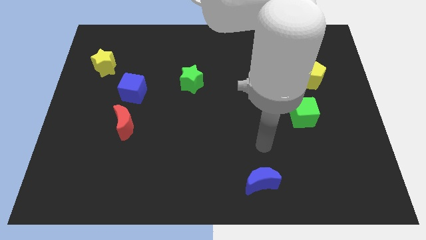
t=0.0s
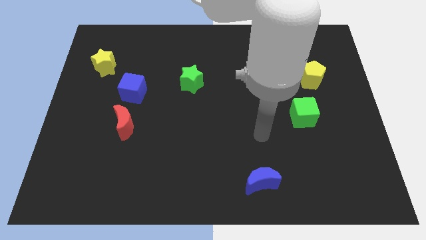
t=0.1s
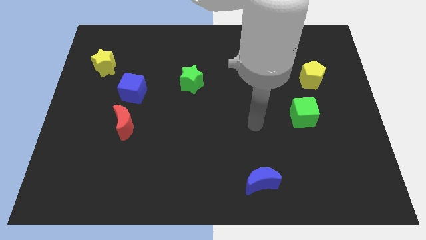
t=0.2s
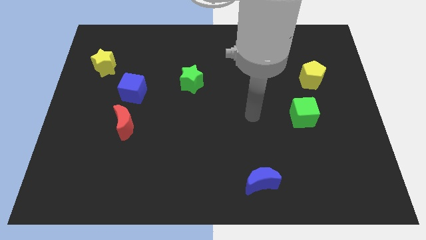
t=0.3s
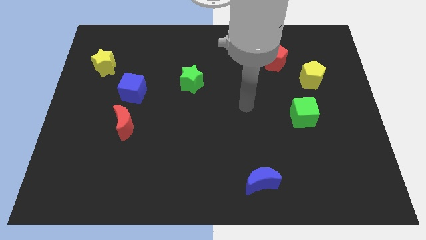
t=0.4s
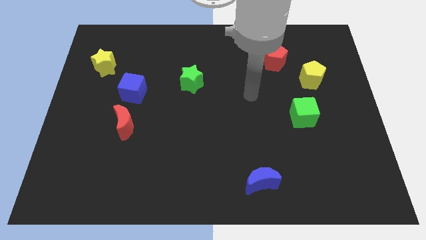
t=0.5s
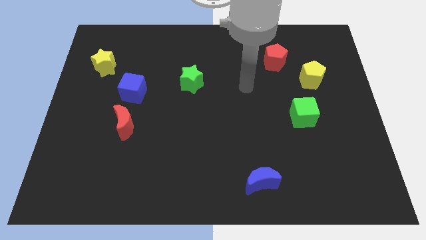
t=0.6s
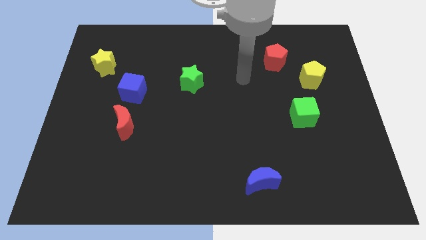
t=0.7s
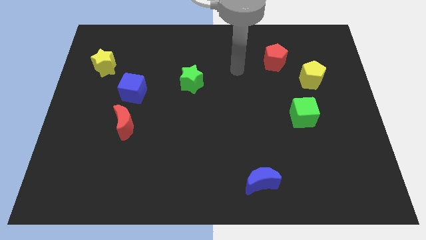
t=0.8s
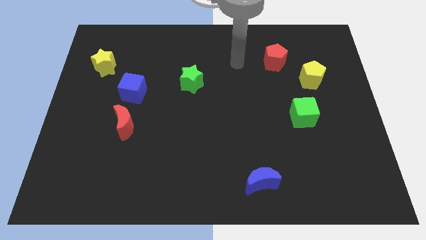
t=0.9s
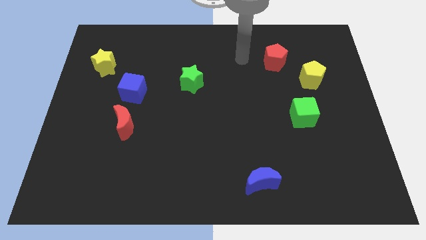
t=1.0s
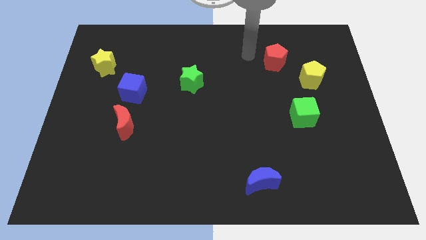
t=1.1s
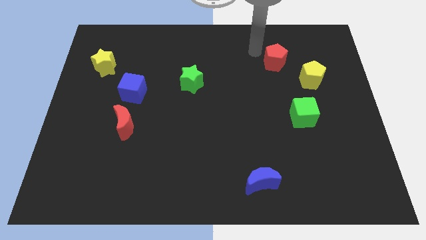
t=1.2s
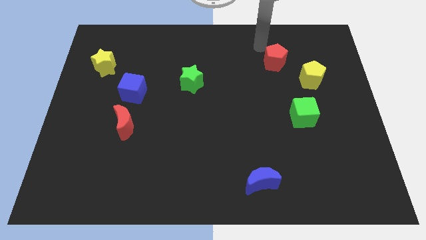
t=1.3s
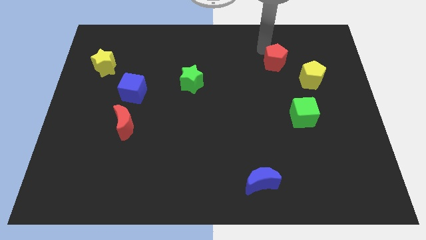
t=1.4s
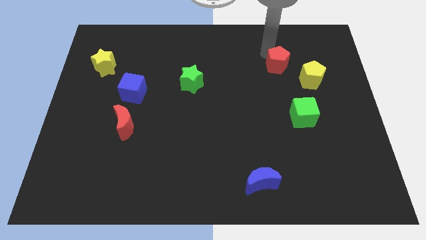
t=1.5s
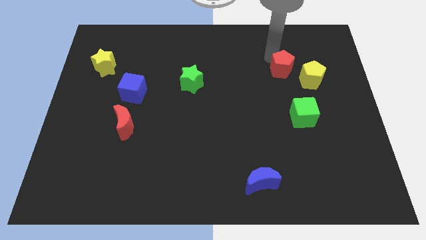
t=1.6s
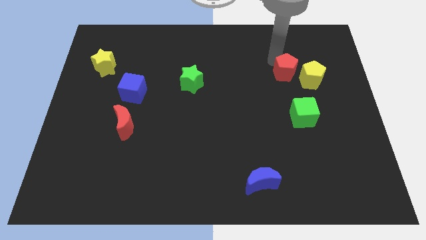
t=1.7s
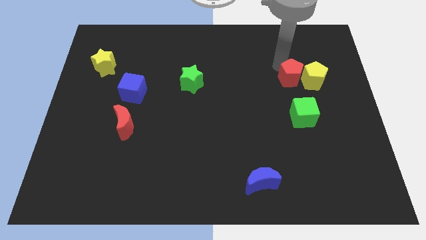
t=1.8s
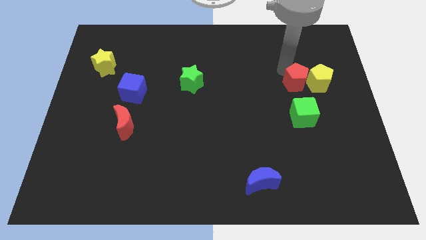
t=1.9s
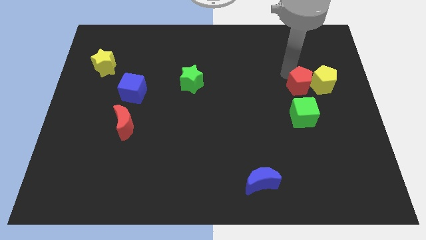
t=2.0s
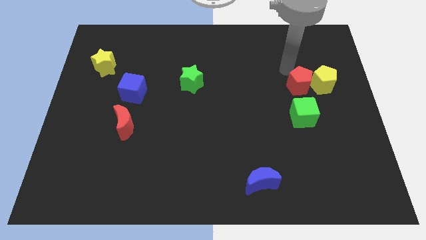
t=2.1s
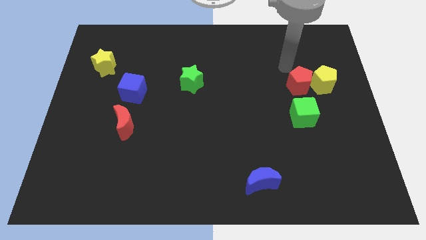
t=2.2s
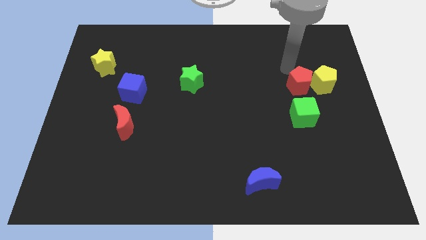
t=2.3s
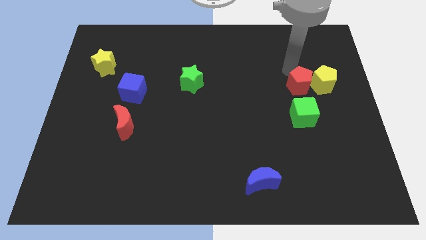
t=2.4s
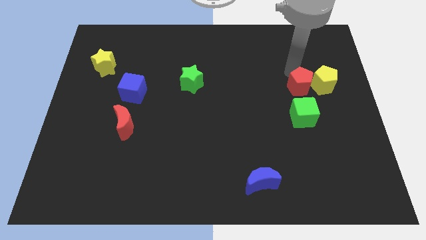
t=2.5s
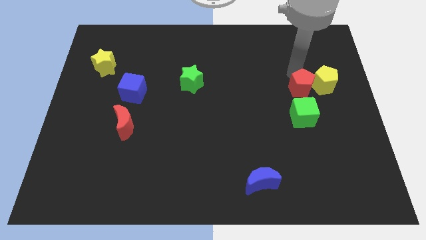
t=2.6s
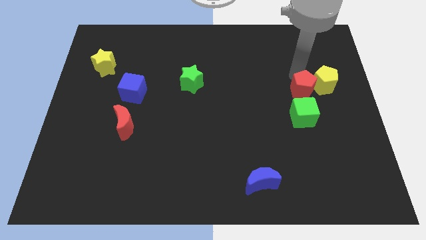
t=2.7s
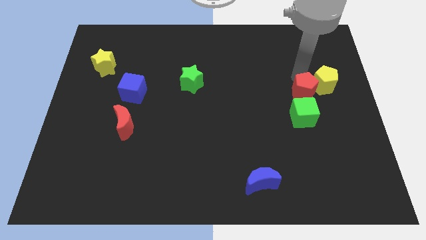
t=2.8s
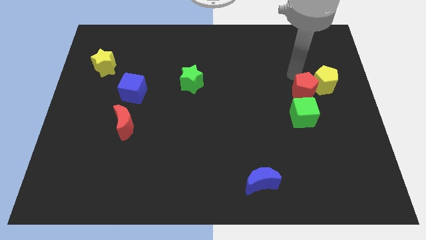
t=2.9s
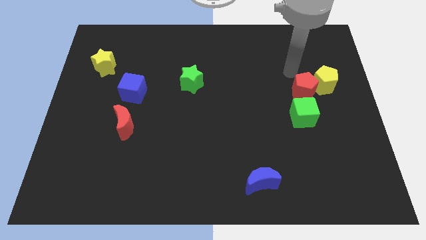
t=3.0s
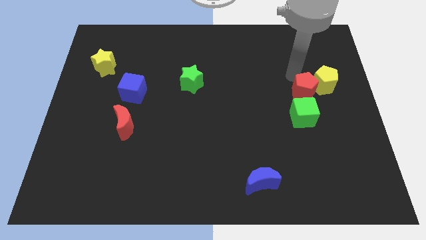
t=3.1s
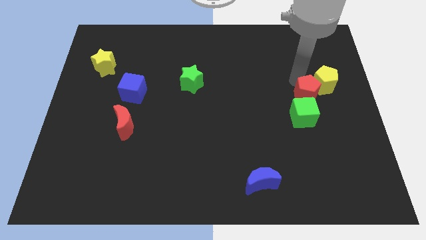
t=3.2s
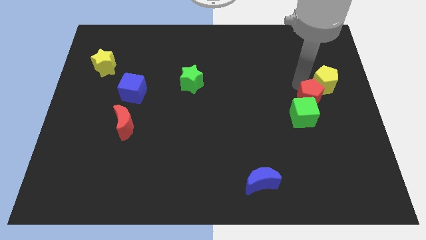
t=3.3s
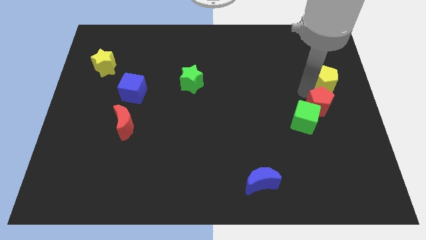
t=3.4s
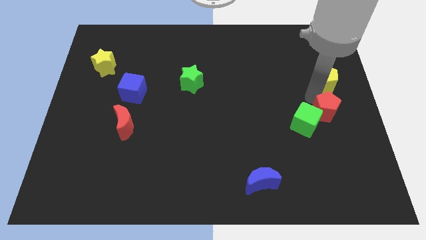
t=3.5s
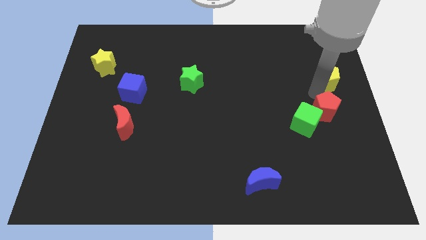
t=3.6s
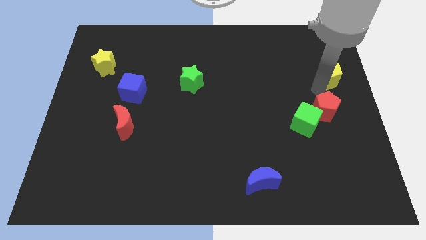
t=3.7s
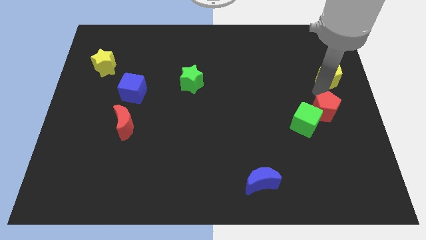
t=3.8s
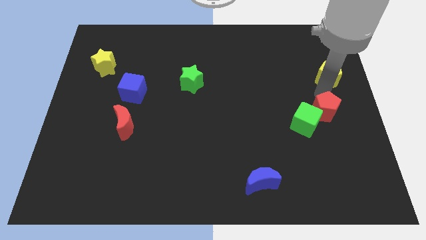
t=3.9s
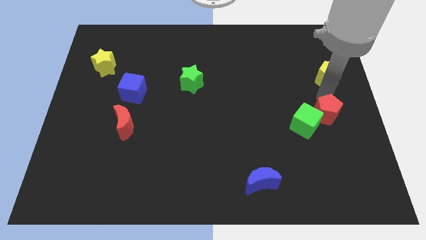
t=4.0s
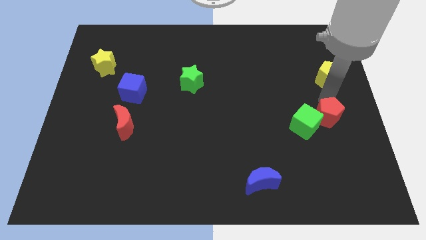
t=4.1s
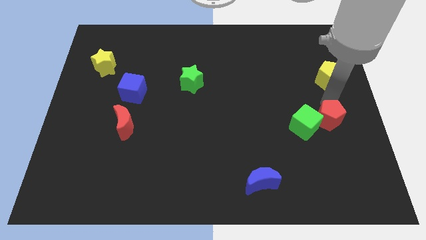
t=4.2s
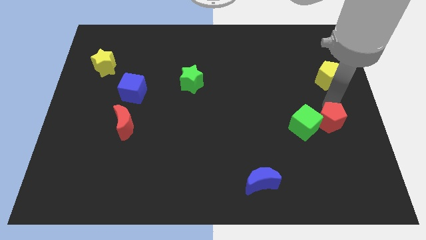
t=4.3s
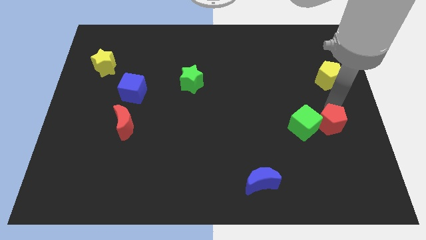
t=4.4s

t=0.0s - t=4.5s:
slide the red pentagon diagonally down and to the right of the green cube

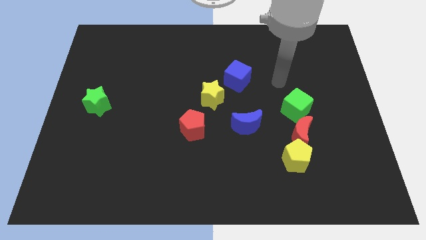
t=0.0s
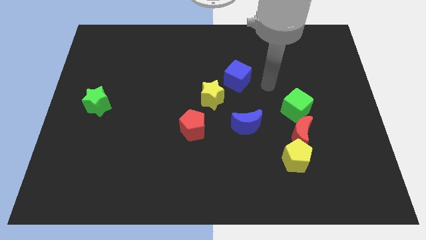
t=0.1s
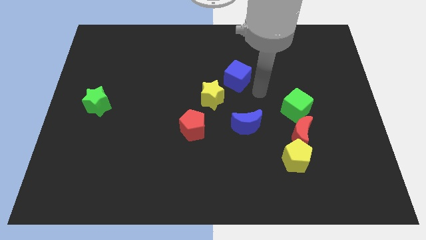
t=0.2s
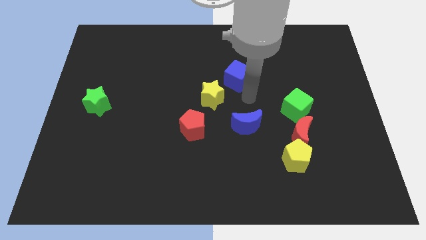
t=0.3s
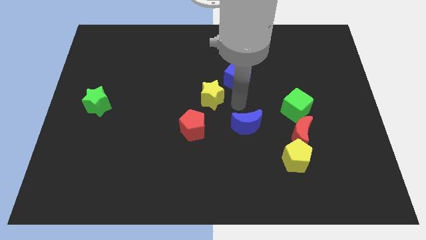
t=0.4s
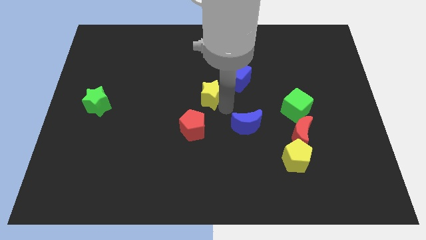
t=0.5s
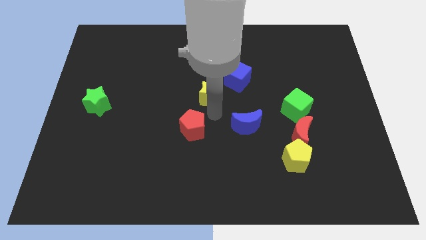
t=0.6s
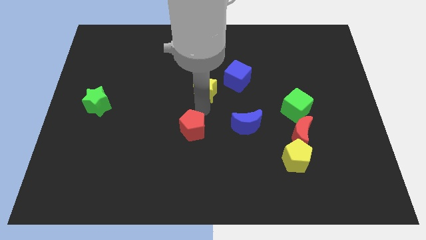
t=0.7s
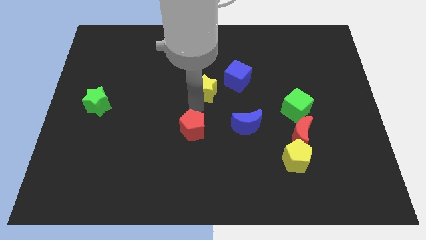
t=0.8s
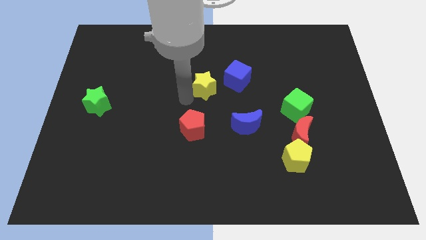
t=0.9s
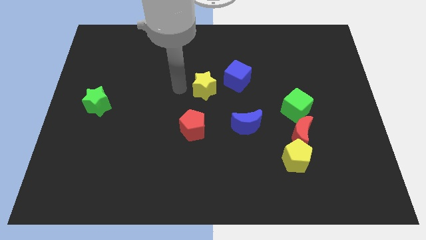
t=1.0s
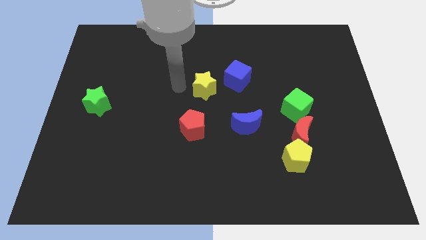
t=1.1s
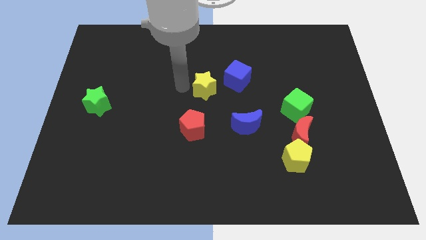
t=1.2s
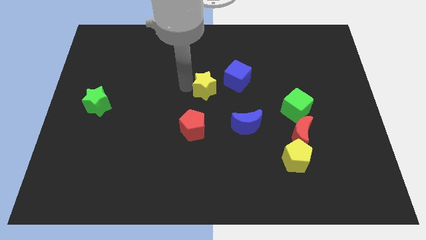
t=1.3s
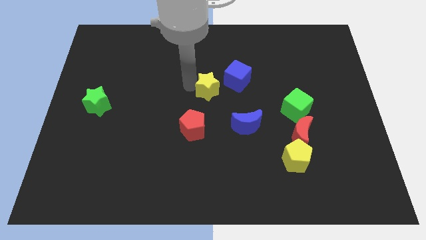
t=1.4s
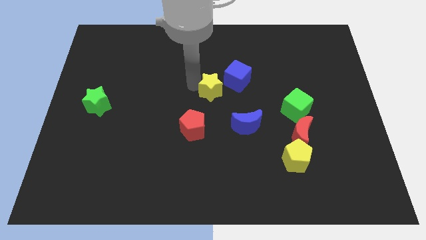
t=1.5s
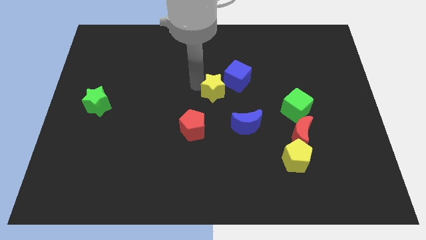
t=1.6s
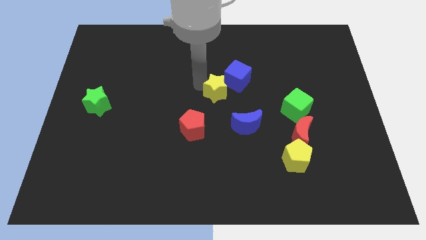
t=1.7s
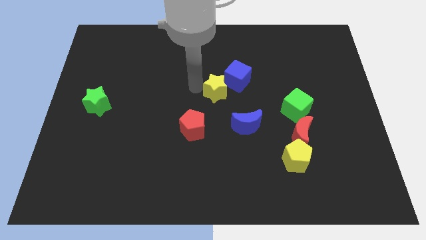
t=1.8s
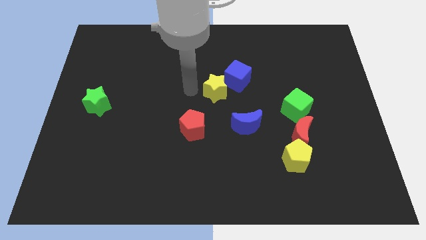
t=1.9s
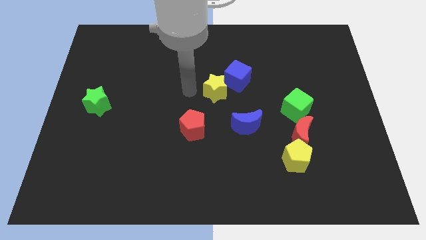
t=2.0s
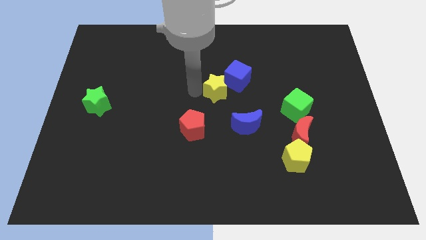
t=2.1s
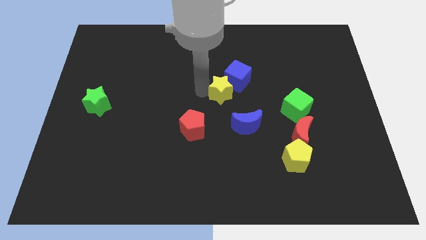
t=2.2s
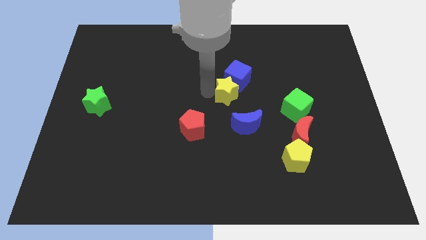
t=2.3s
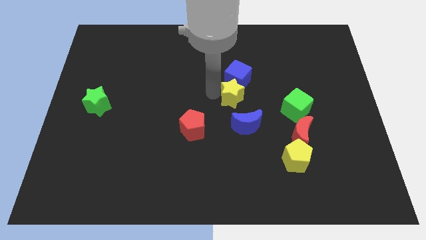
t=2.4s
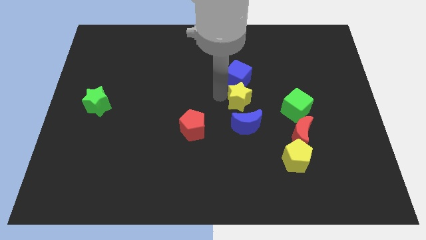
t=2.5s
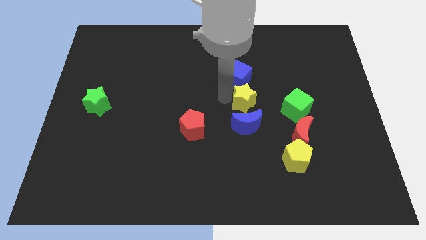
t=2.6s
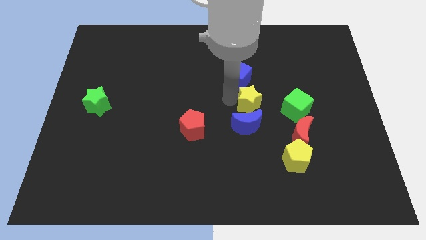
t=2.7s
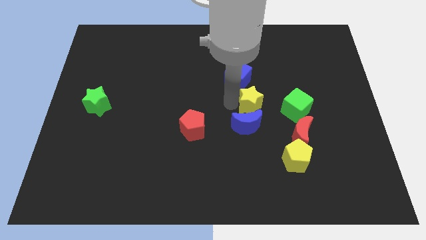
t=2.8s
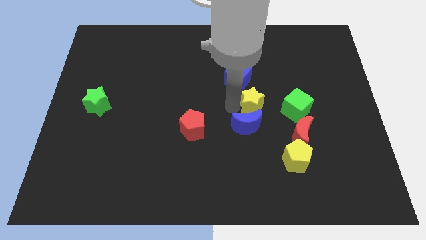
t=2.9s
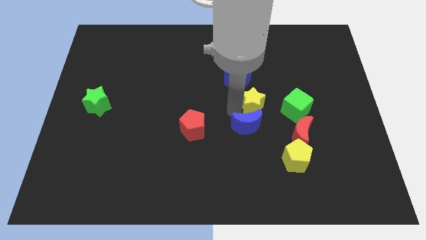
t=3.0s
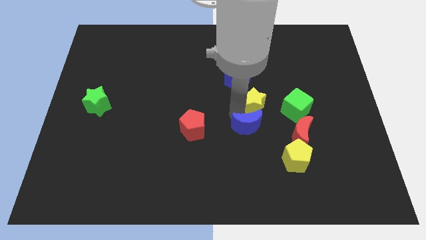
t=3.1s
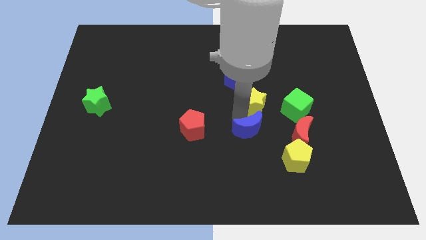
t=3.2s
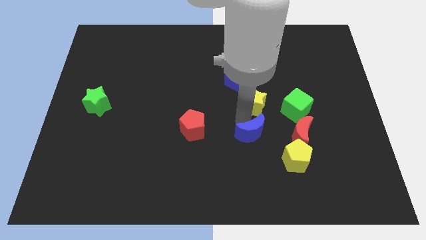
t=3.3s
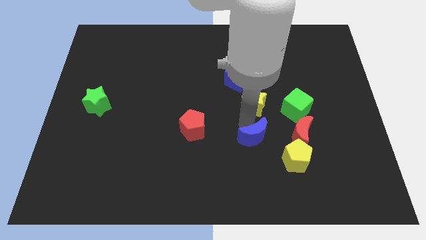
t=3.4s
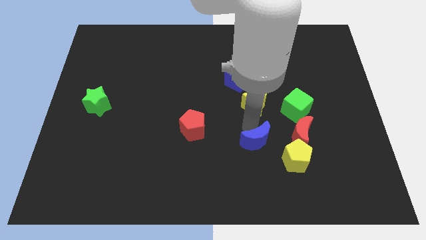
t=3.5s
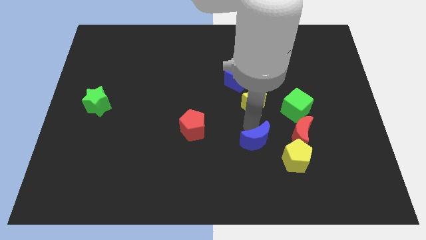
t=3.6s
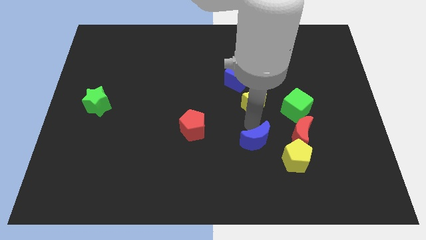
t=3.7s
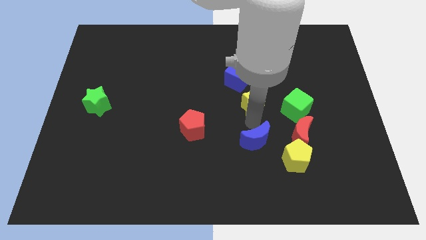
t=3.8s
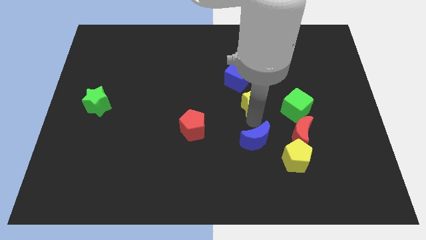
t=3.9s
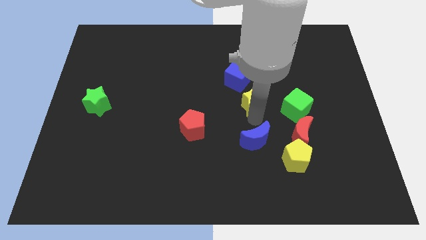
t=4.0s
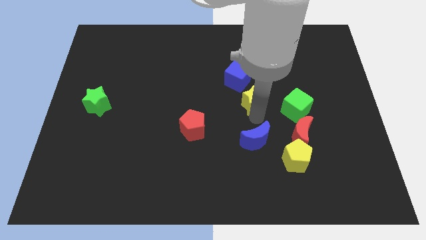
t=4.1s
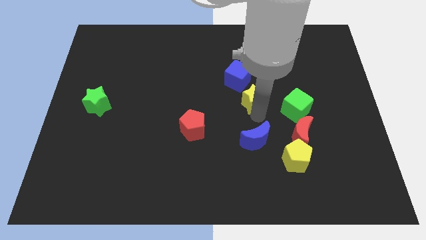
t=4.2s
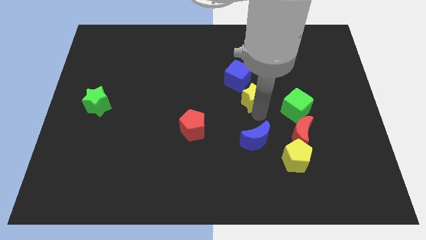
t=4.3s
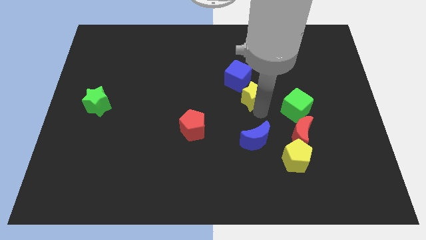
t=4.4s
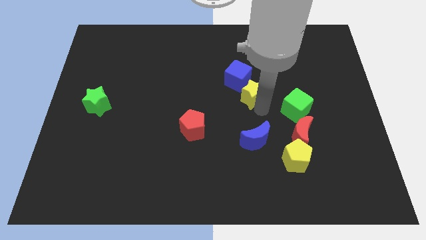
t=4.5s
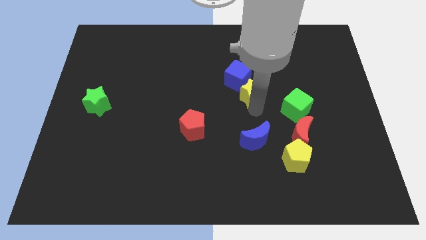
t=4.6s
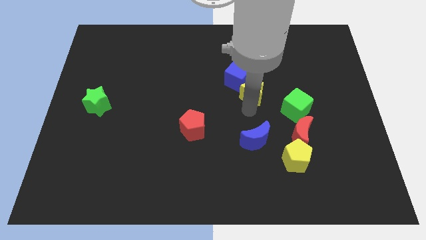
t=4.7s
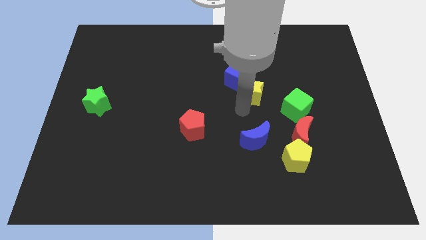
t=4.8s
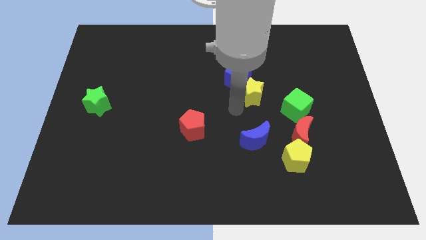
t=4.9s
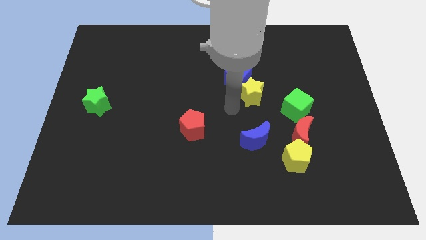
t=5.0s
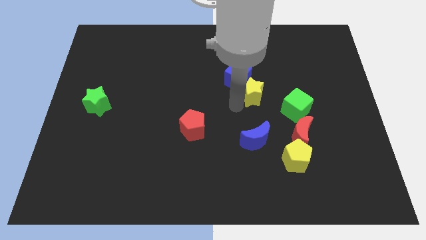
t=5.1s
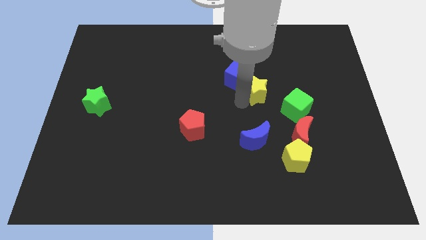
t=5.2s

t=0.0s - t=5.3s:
put the yellow star just right of the blue cube
